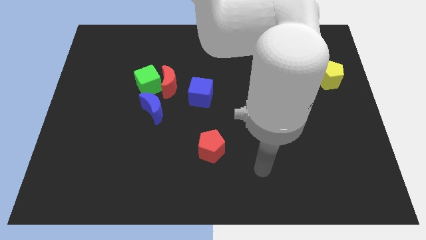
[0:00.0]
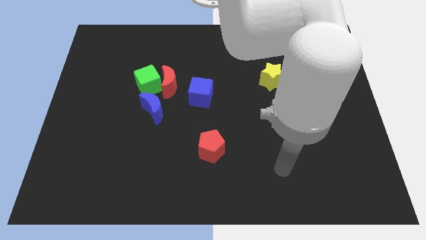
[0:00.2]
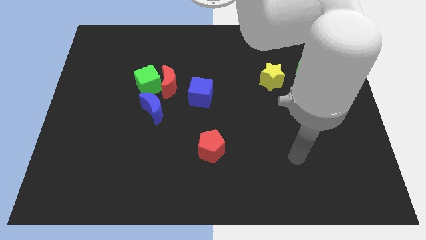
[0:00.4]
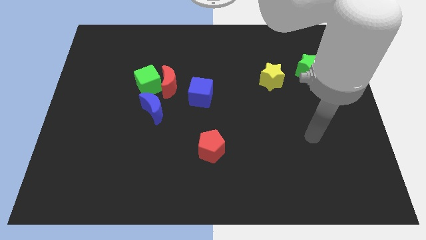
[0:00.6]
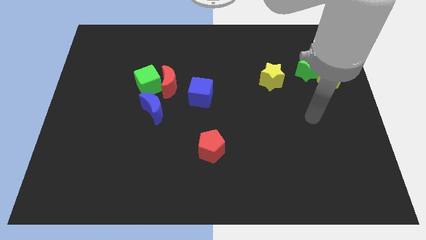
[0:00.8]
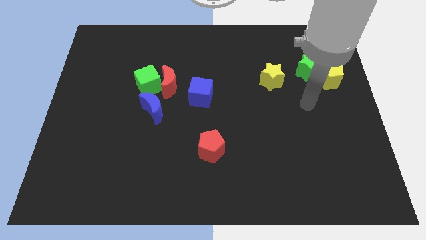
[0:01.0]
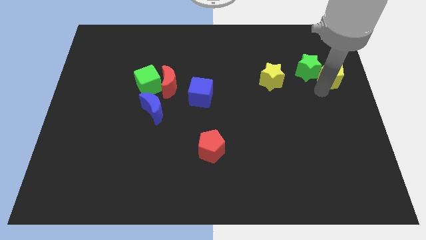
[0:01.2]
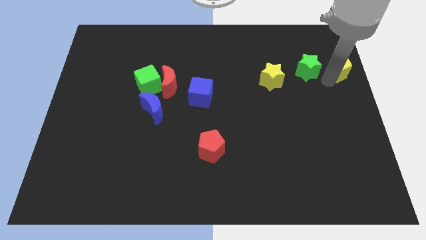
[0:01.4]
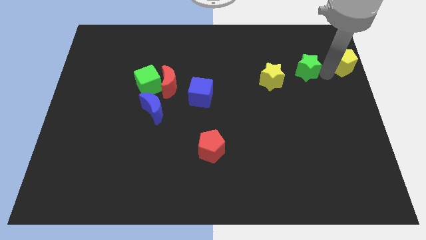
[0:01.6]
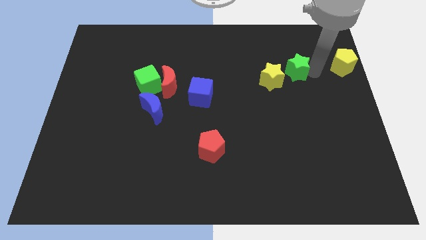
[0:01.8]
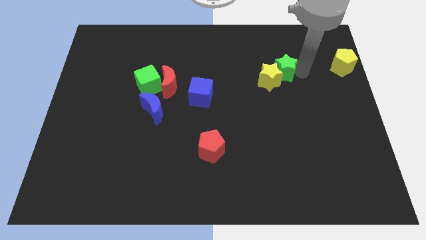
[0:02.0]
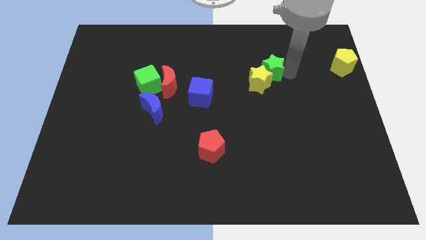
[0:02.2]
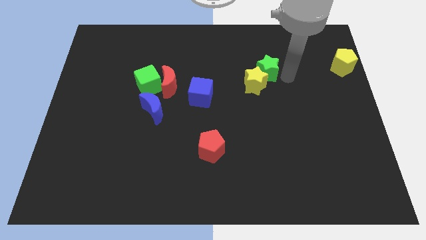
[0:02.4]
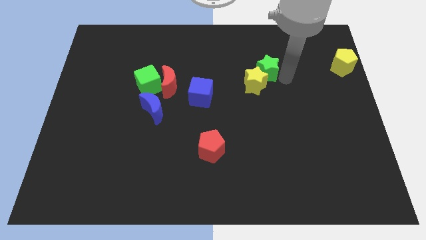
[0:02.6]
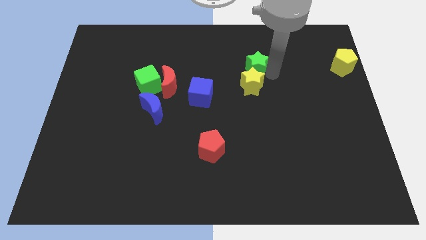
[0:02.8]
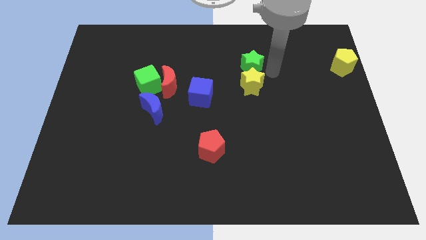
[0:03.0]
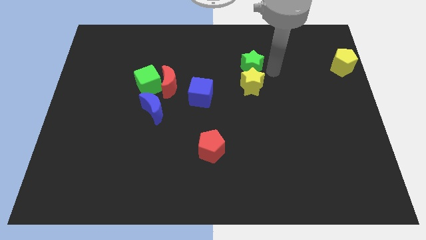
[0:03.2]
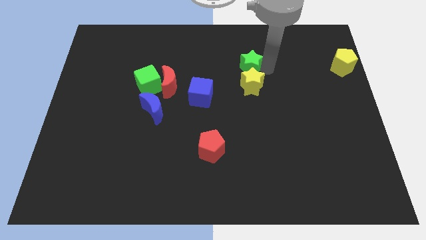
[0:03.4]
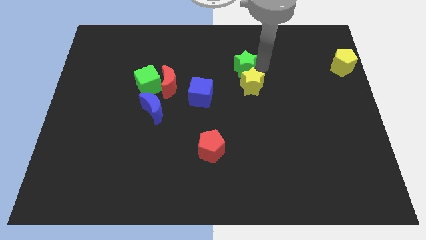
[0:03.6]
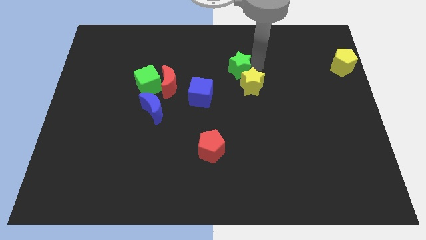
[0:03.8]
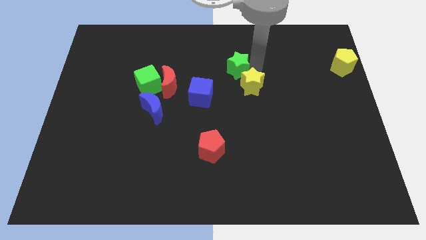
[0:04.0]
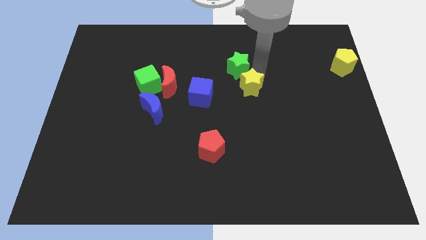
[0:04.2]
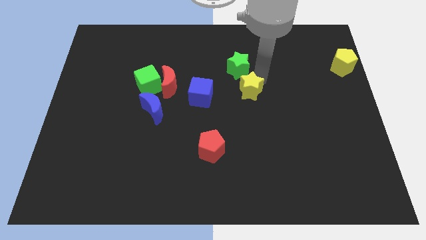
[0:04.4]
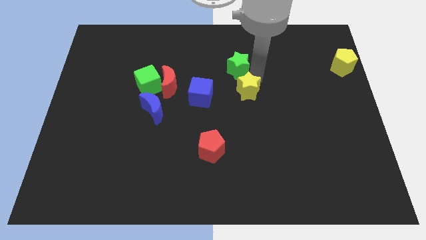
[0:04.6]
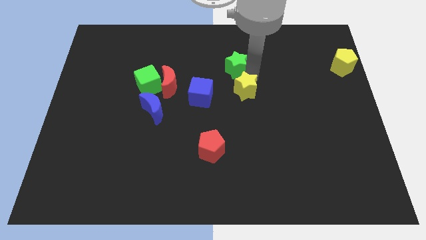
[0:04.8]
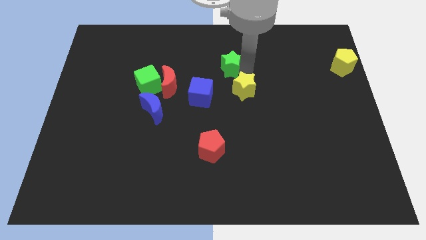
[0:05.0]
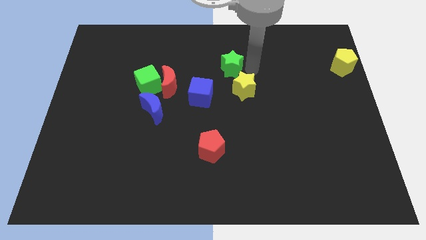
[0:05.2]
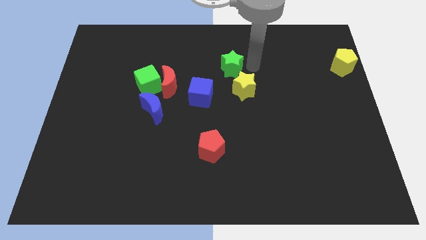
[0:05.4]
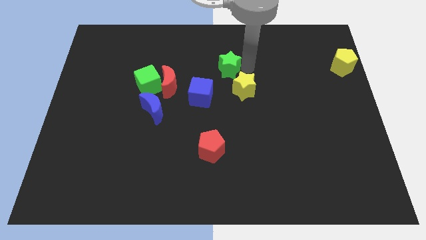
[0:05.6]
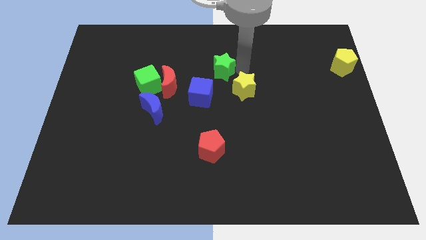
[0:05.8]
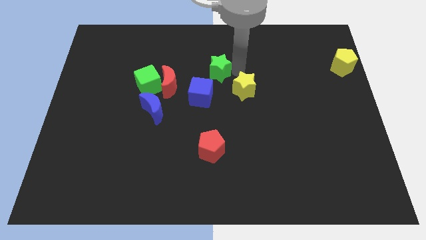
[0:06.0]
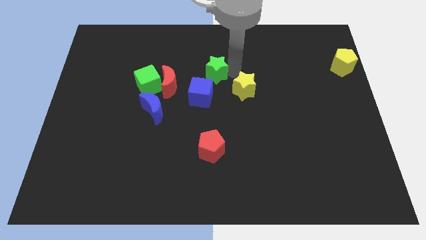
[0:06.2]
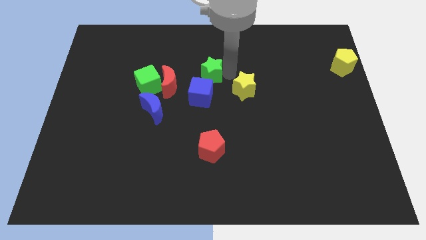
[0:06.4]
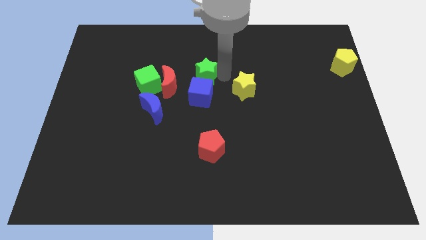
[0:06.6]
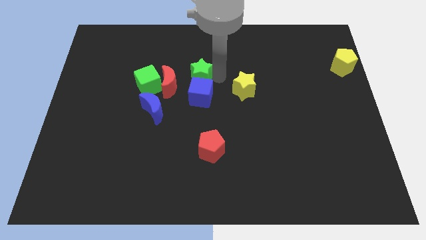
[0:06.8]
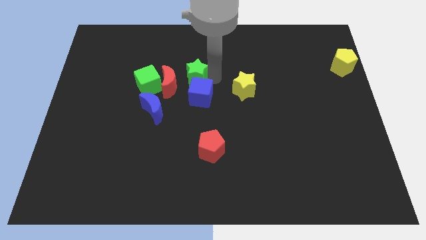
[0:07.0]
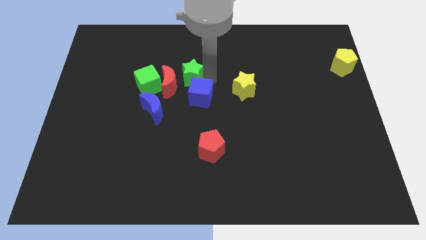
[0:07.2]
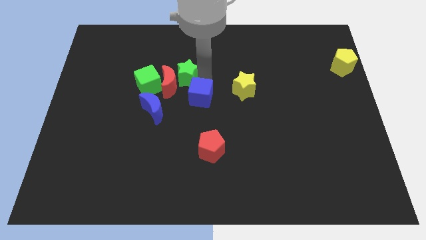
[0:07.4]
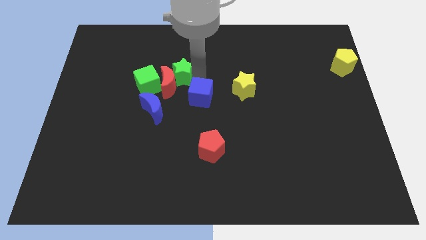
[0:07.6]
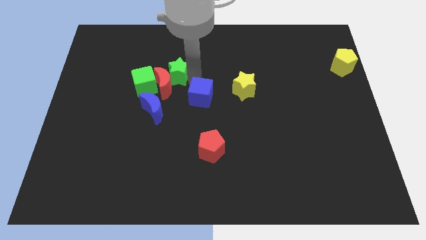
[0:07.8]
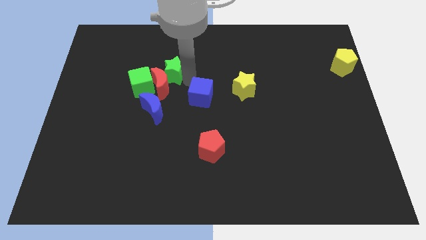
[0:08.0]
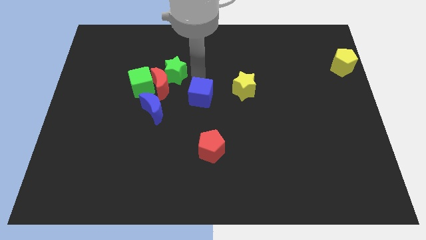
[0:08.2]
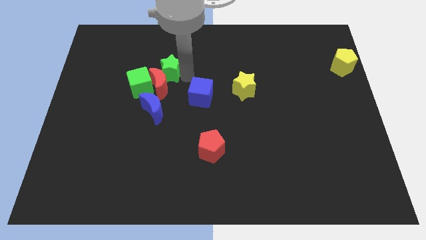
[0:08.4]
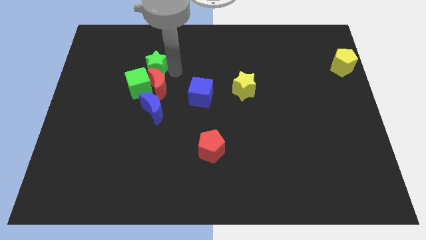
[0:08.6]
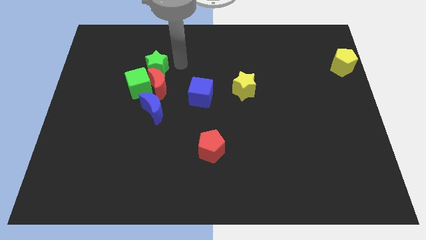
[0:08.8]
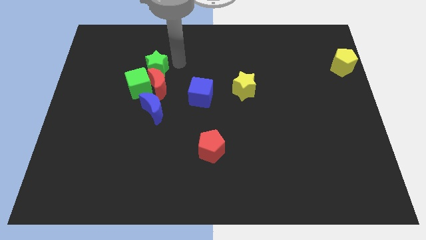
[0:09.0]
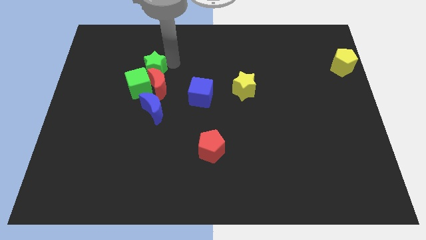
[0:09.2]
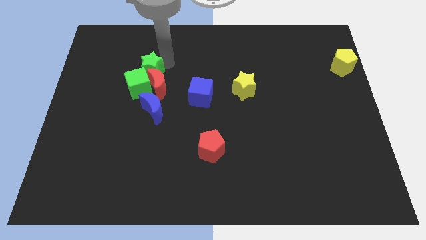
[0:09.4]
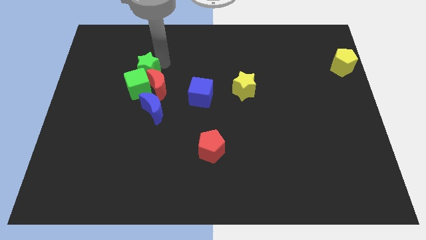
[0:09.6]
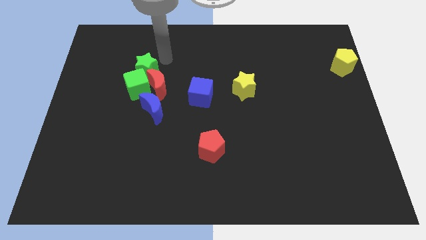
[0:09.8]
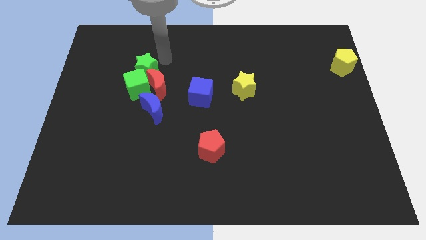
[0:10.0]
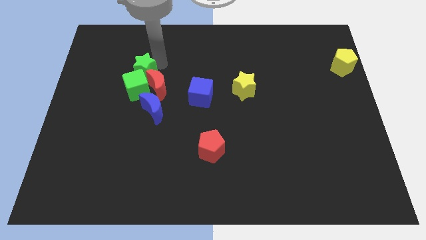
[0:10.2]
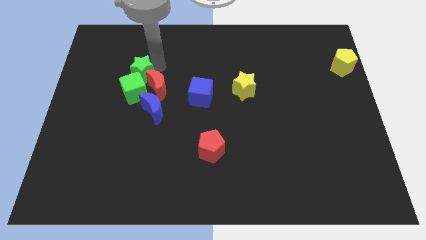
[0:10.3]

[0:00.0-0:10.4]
put the green star left of the red moon

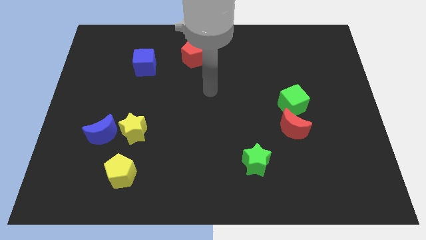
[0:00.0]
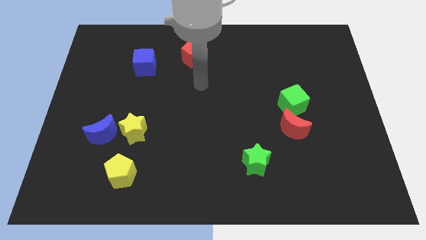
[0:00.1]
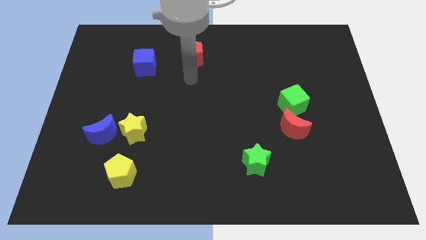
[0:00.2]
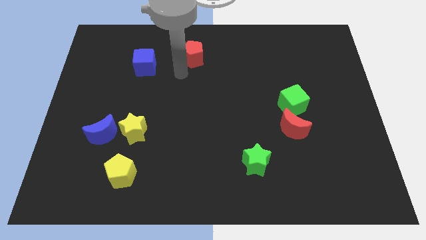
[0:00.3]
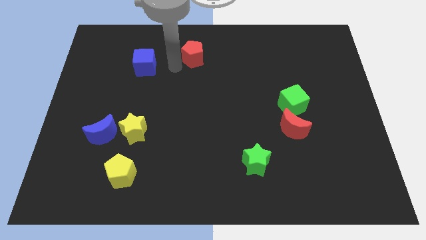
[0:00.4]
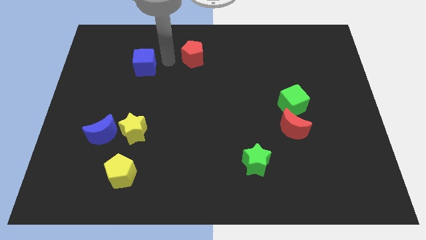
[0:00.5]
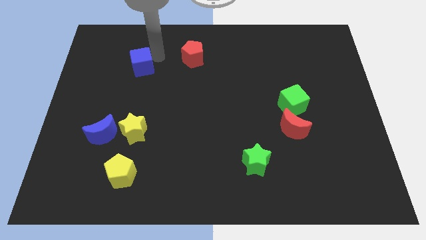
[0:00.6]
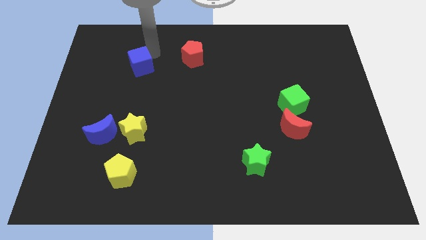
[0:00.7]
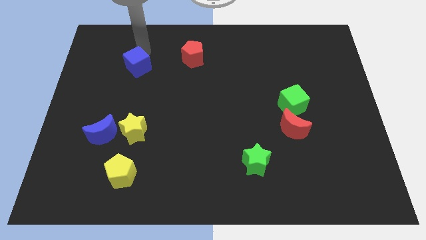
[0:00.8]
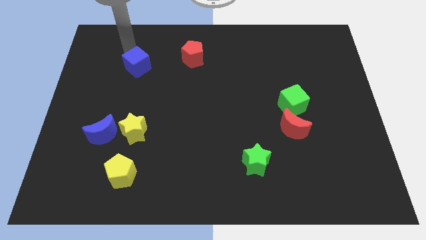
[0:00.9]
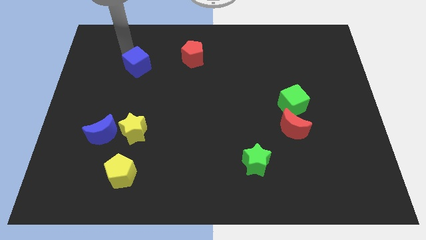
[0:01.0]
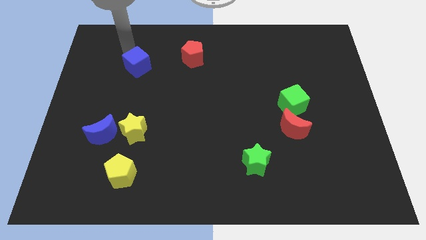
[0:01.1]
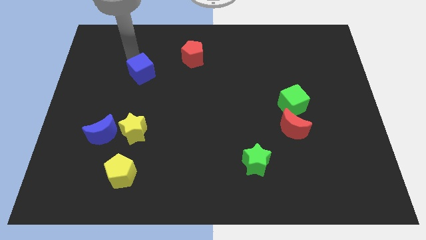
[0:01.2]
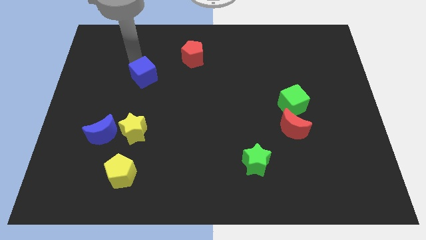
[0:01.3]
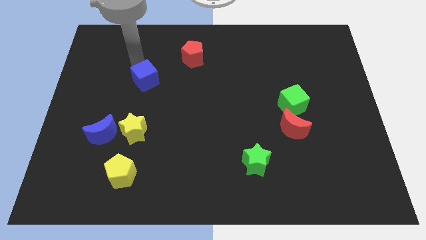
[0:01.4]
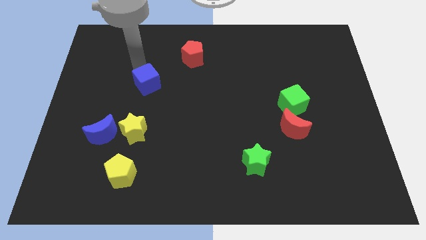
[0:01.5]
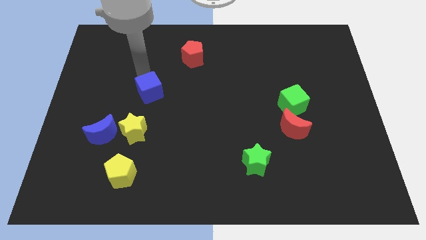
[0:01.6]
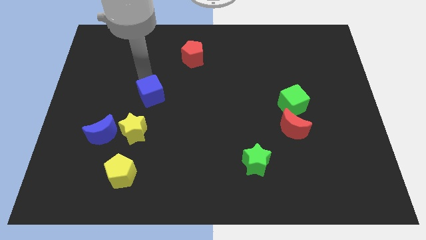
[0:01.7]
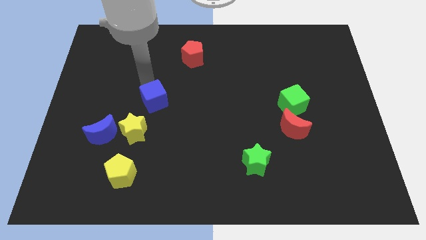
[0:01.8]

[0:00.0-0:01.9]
move the blue cube diagonally up and to the right of the yellow star

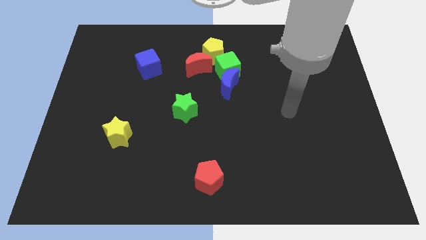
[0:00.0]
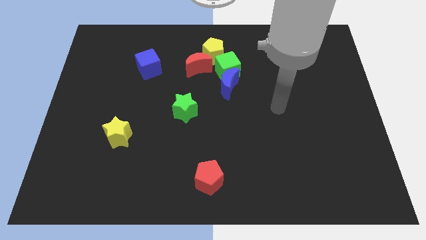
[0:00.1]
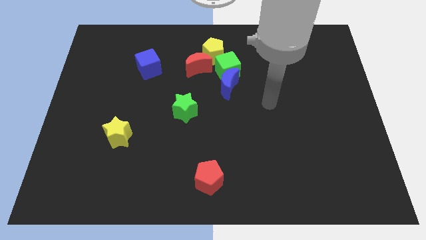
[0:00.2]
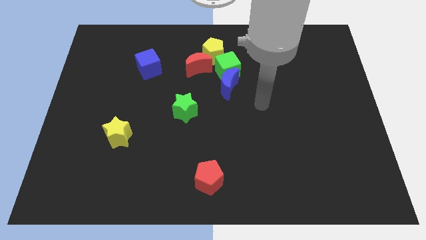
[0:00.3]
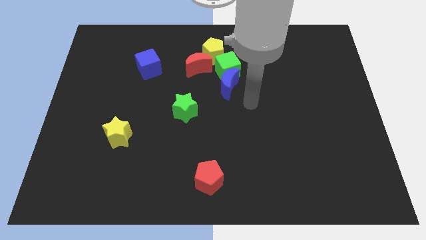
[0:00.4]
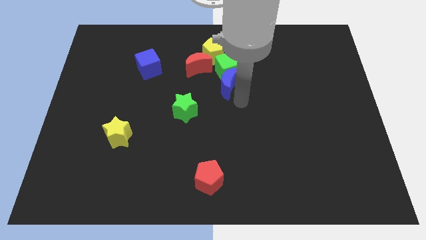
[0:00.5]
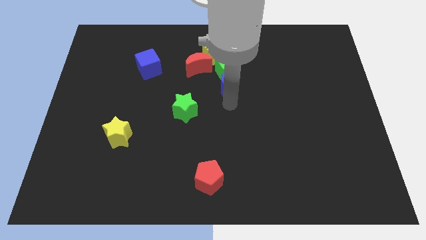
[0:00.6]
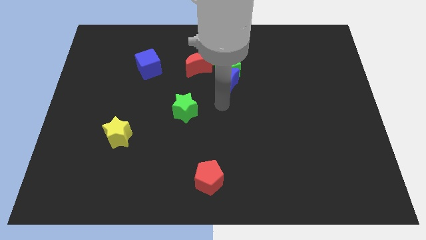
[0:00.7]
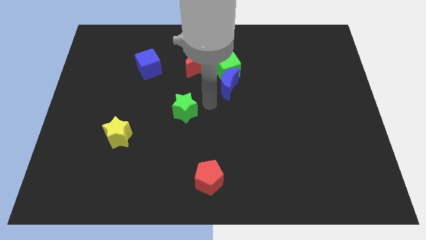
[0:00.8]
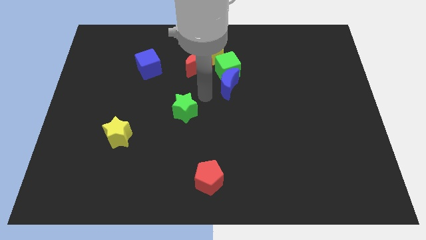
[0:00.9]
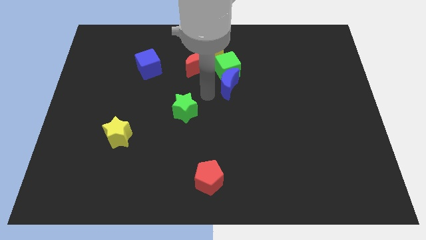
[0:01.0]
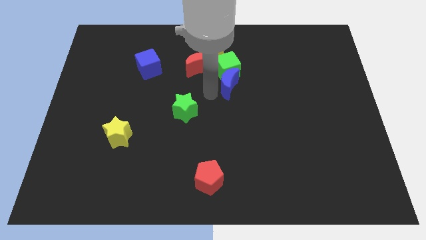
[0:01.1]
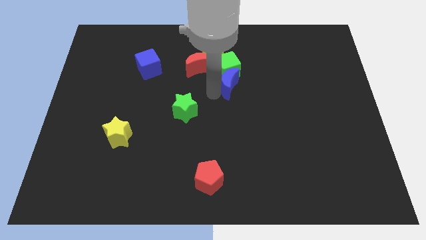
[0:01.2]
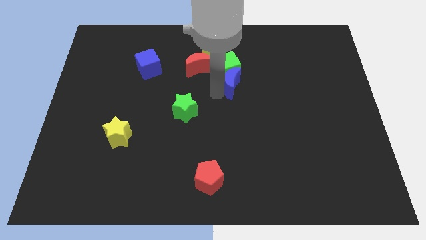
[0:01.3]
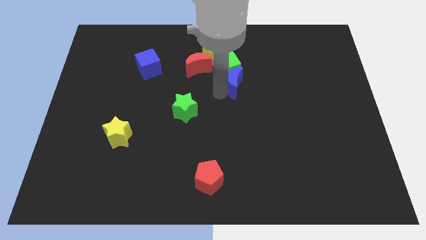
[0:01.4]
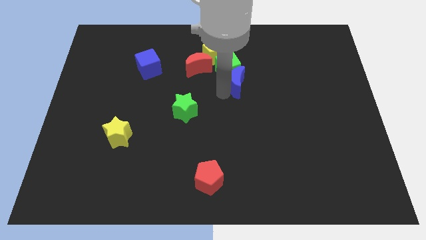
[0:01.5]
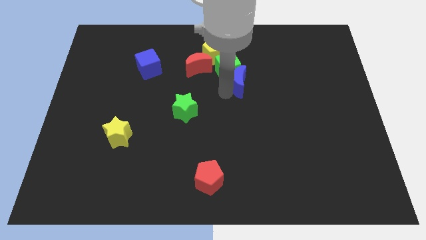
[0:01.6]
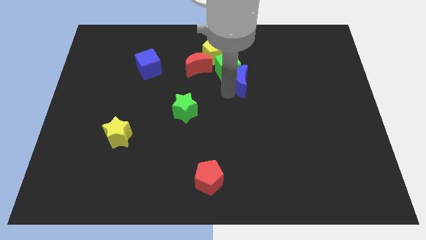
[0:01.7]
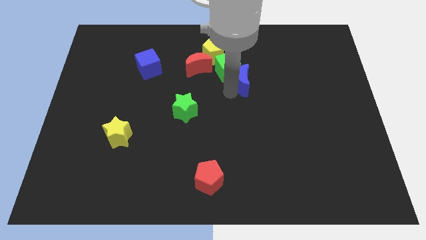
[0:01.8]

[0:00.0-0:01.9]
move the blue moon just right of the green cube
